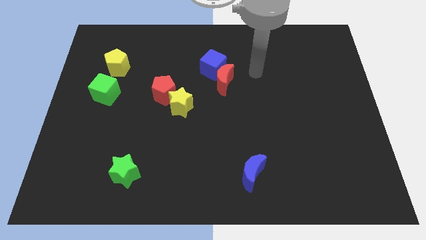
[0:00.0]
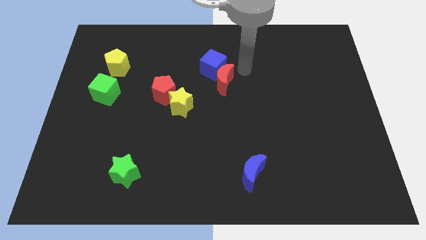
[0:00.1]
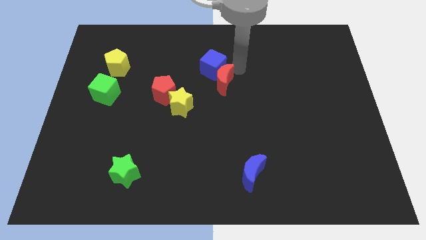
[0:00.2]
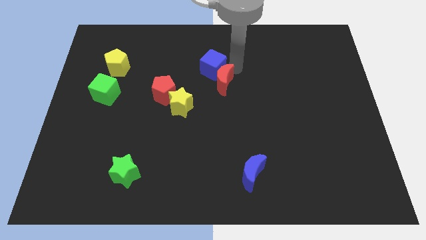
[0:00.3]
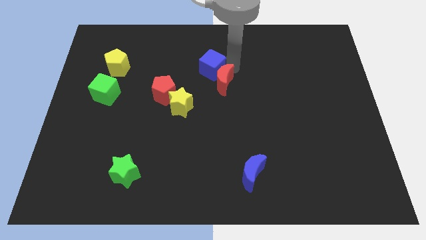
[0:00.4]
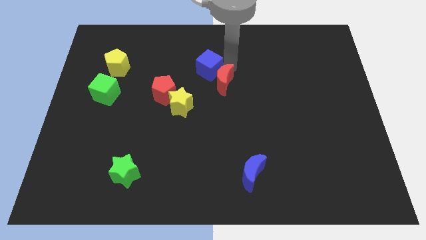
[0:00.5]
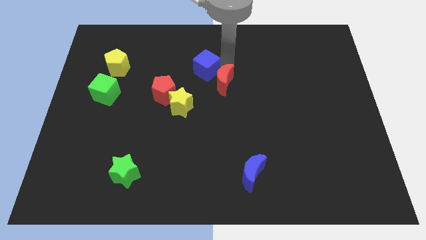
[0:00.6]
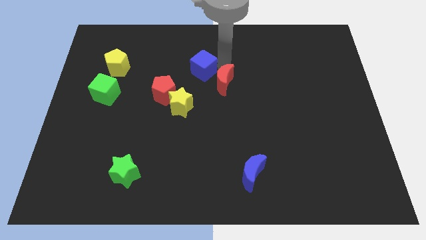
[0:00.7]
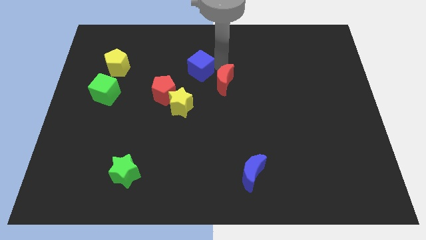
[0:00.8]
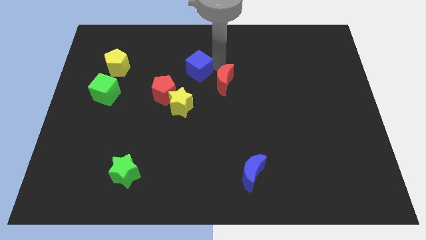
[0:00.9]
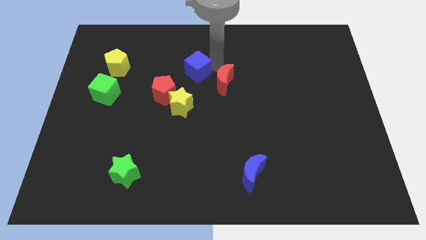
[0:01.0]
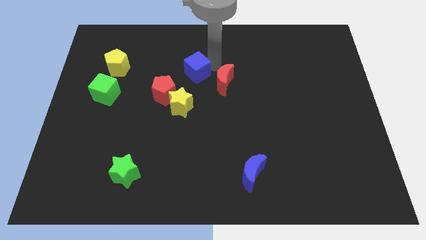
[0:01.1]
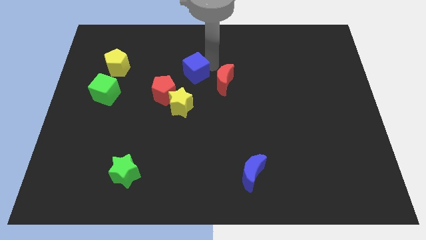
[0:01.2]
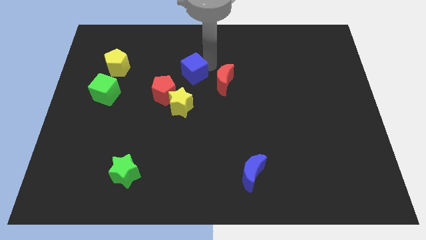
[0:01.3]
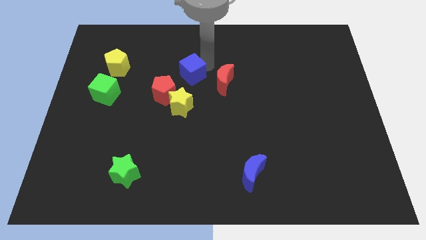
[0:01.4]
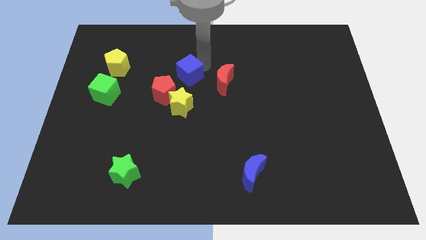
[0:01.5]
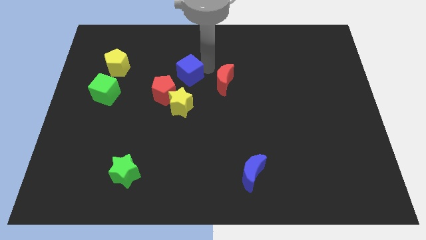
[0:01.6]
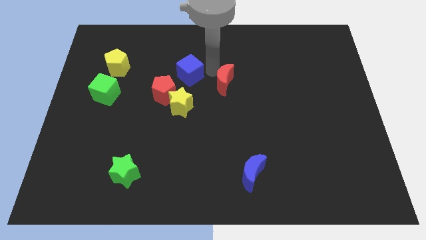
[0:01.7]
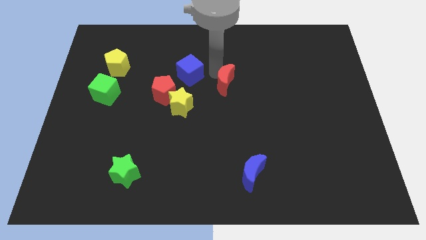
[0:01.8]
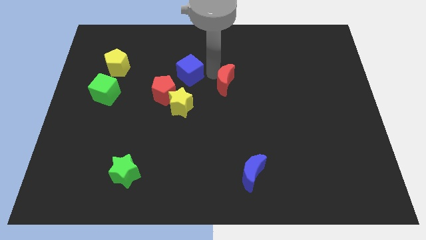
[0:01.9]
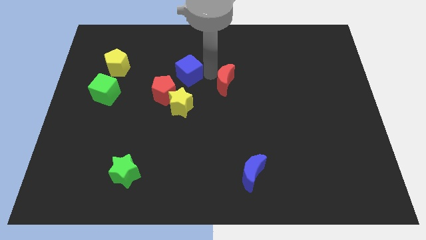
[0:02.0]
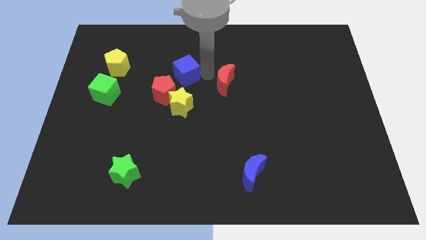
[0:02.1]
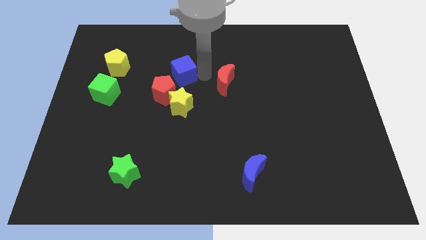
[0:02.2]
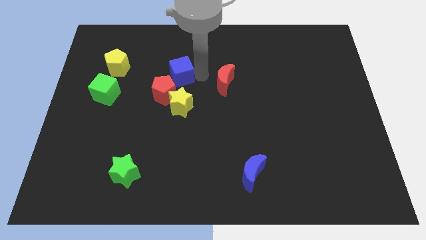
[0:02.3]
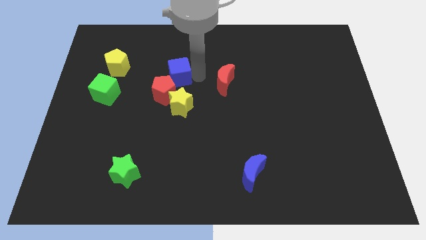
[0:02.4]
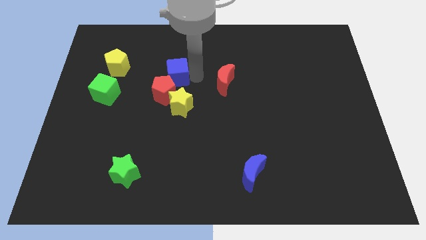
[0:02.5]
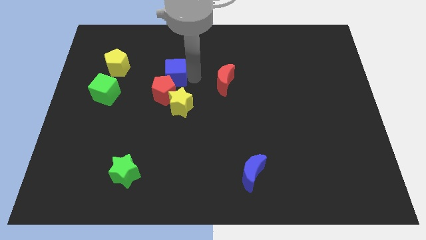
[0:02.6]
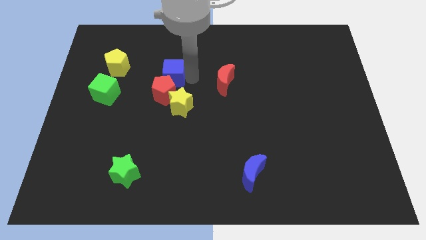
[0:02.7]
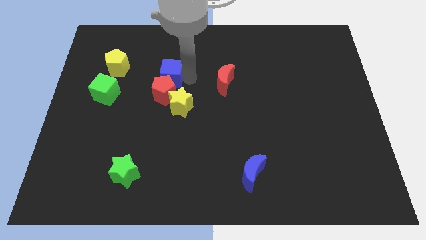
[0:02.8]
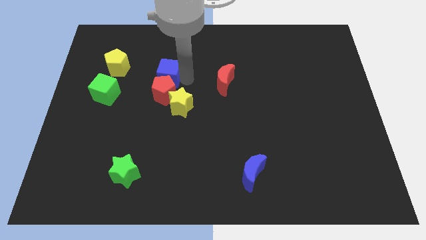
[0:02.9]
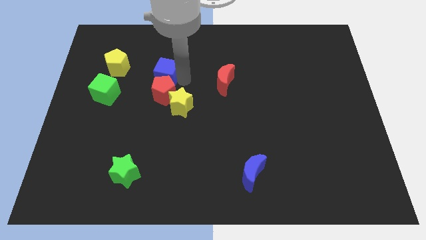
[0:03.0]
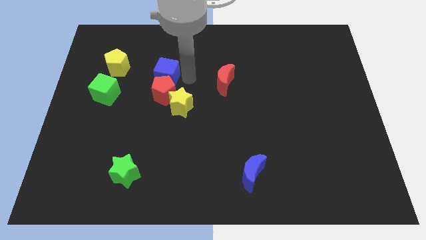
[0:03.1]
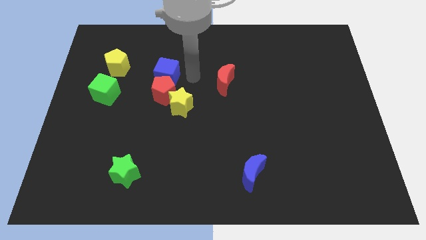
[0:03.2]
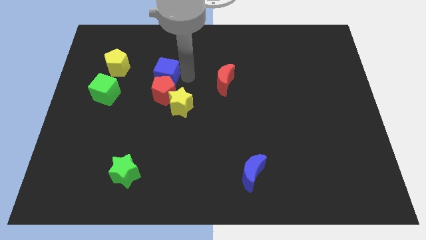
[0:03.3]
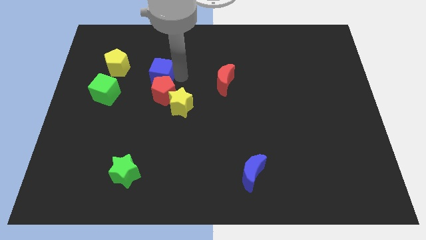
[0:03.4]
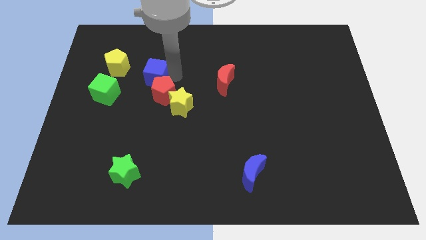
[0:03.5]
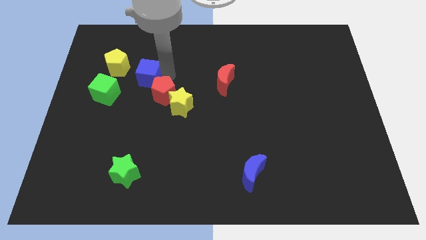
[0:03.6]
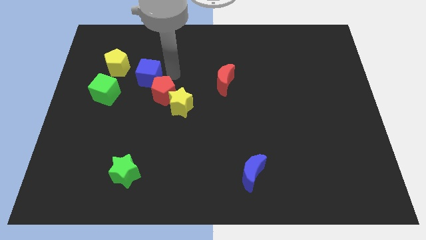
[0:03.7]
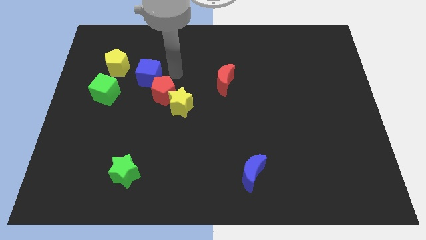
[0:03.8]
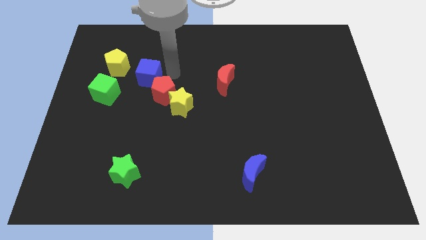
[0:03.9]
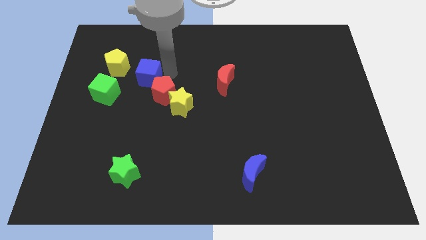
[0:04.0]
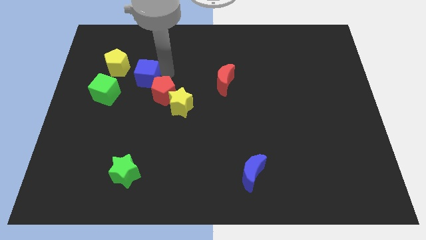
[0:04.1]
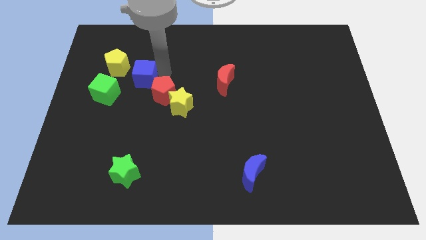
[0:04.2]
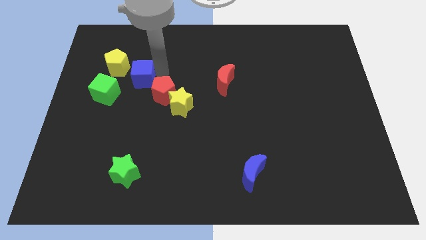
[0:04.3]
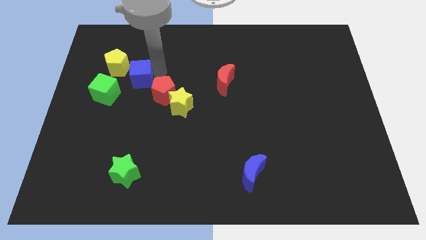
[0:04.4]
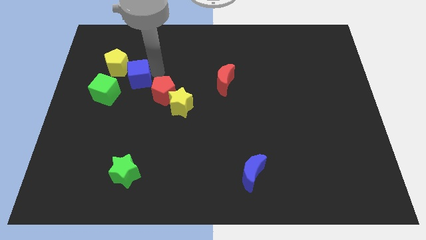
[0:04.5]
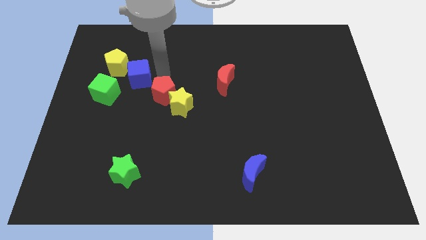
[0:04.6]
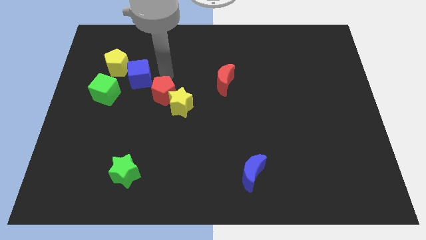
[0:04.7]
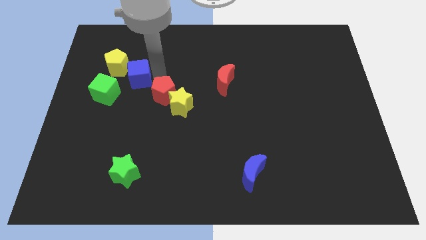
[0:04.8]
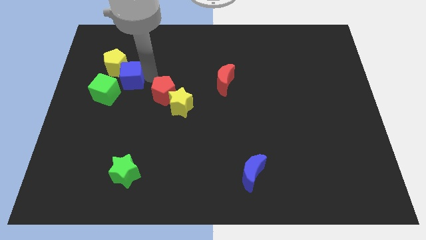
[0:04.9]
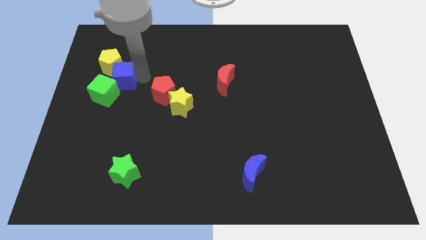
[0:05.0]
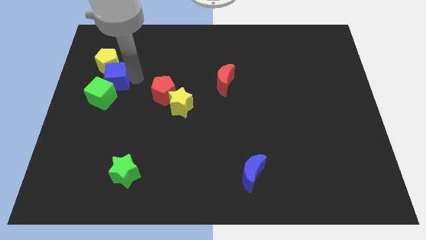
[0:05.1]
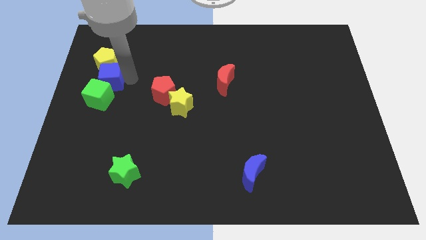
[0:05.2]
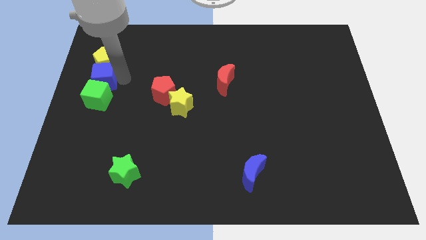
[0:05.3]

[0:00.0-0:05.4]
push the blue cube to the left side

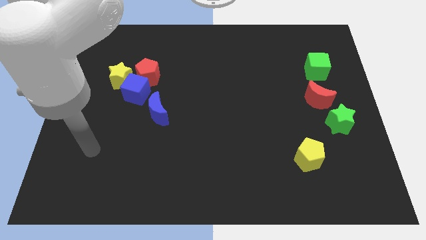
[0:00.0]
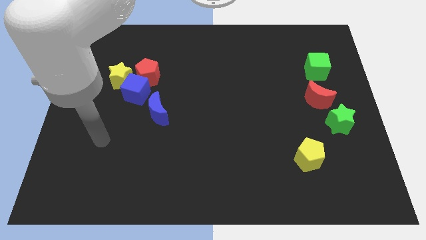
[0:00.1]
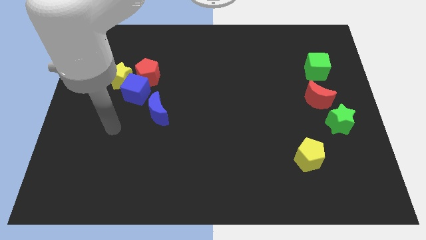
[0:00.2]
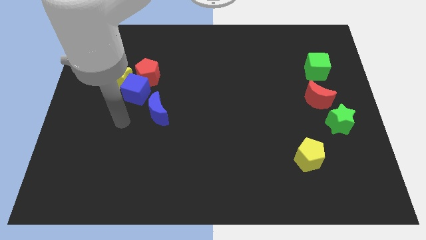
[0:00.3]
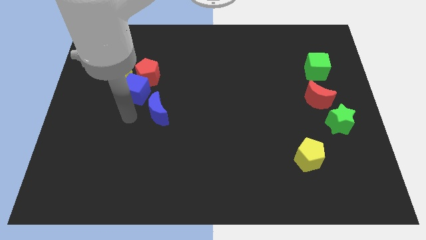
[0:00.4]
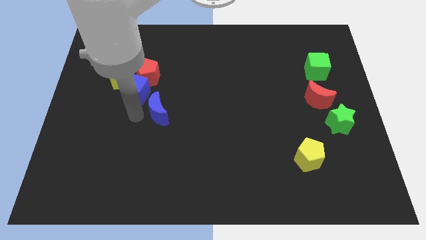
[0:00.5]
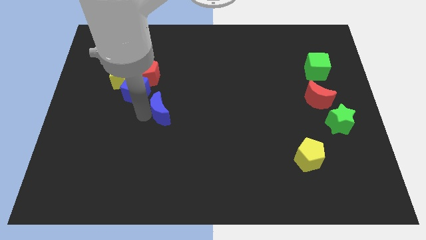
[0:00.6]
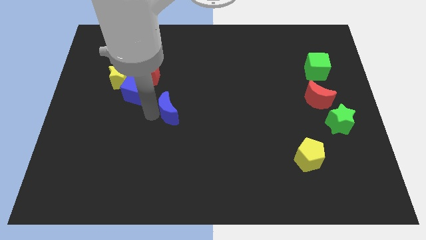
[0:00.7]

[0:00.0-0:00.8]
put the blue moon to the center of the board

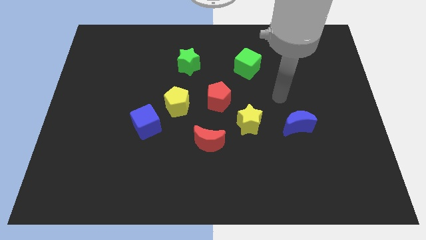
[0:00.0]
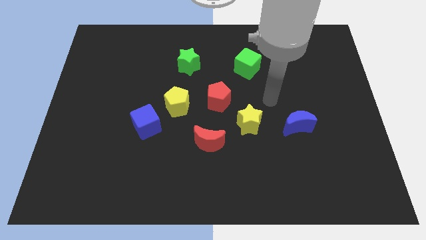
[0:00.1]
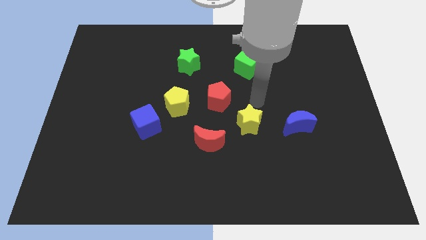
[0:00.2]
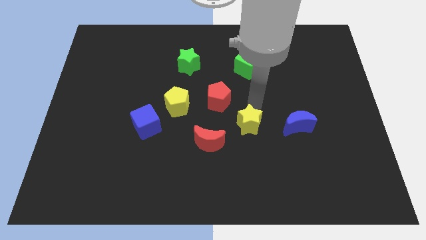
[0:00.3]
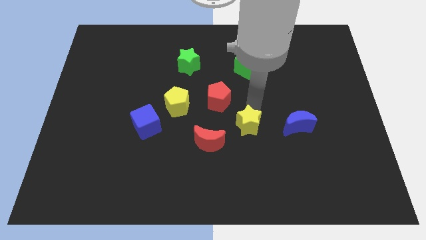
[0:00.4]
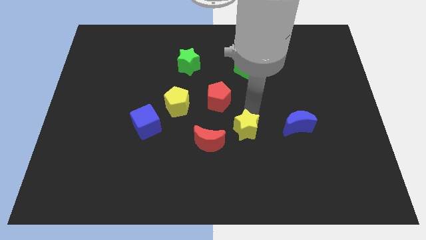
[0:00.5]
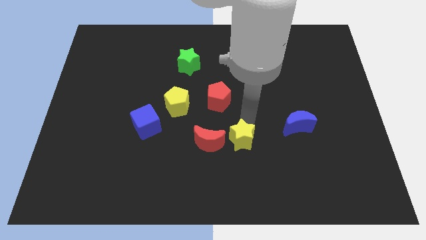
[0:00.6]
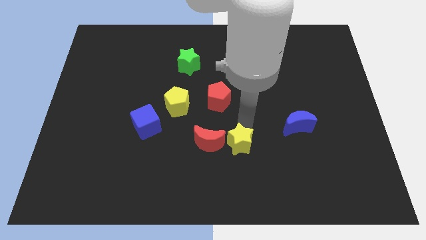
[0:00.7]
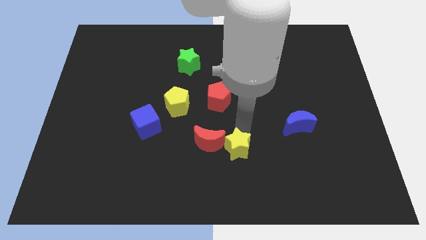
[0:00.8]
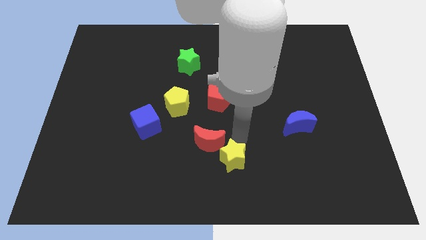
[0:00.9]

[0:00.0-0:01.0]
put the yellow star to the bottom
